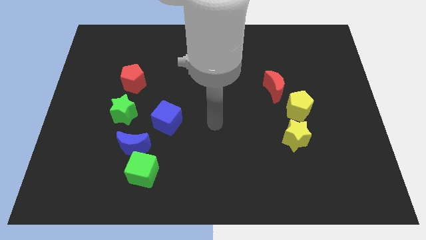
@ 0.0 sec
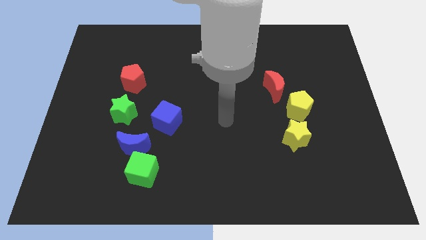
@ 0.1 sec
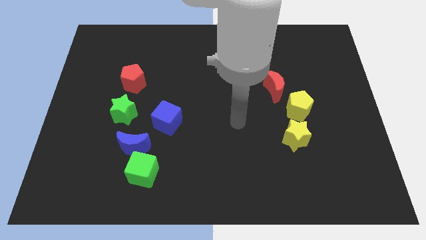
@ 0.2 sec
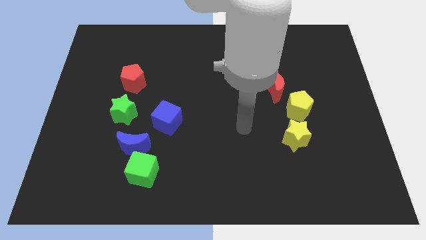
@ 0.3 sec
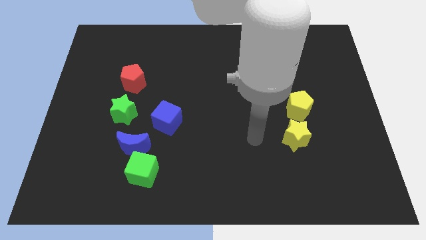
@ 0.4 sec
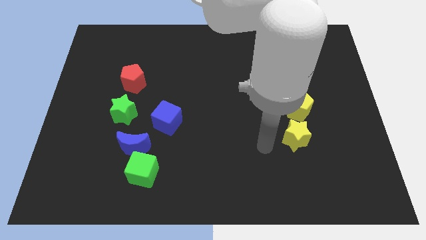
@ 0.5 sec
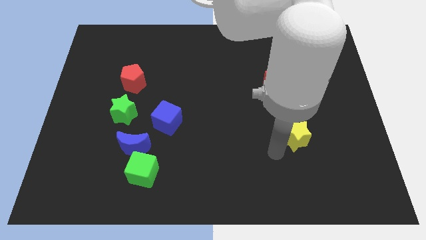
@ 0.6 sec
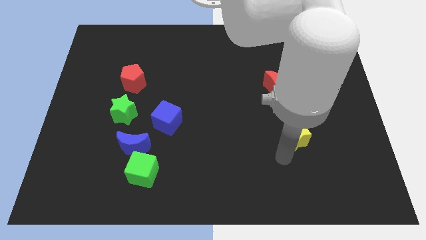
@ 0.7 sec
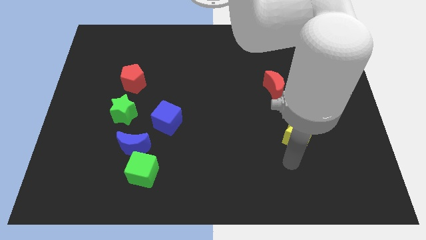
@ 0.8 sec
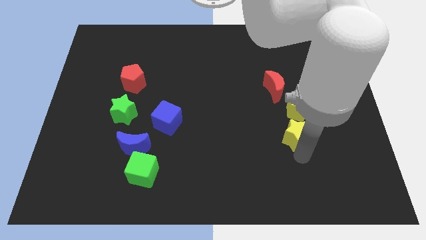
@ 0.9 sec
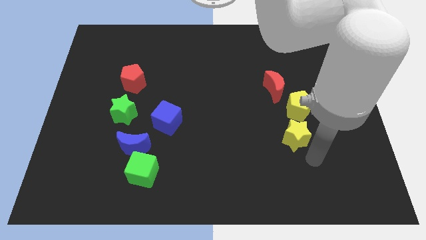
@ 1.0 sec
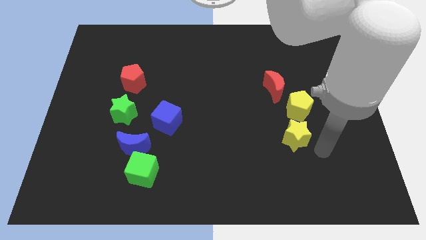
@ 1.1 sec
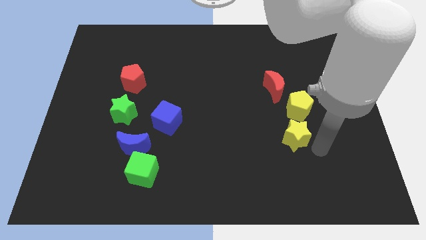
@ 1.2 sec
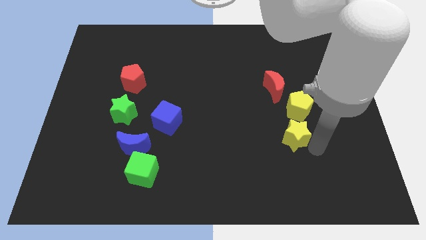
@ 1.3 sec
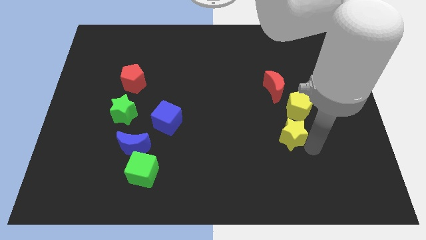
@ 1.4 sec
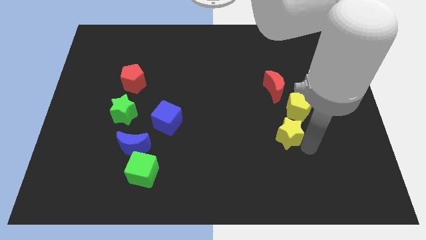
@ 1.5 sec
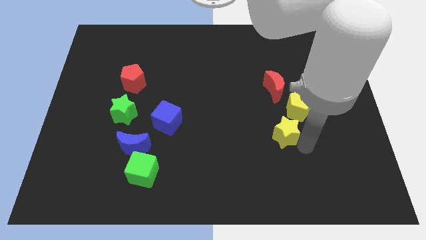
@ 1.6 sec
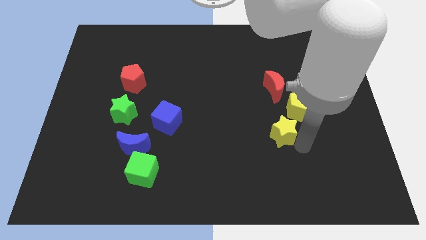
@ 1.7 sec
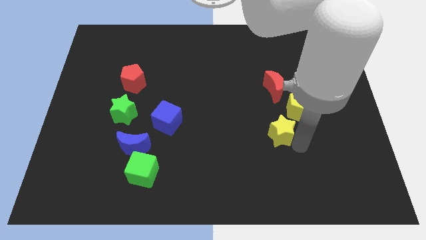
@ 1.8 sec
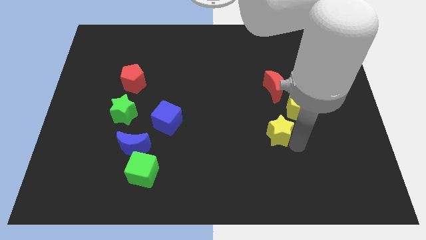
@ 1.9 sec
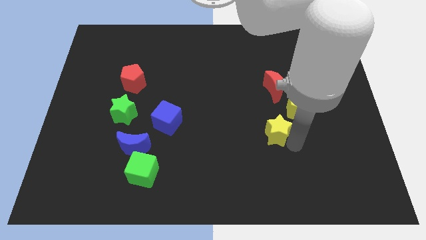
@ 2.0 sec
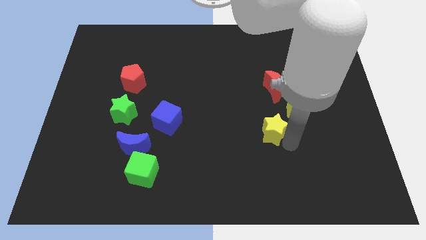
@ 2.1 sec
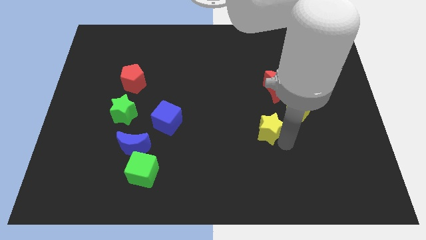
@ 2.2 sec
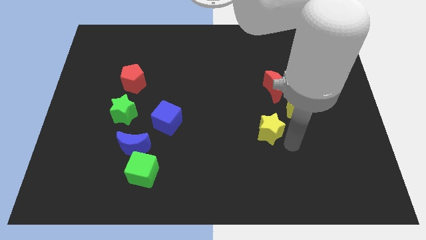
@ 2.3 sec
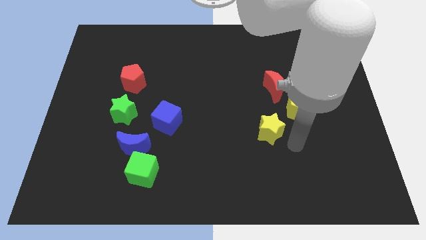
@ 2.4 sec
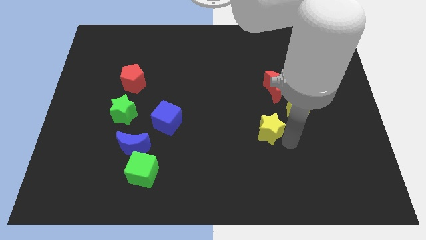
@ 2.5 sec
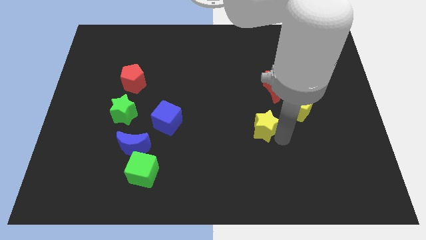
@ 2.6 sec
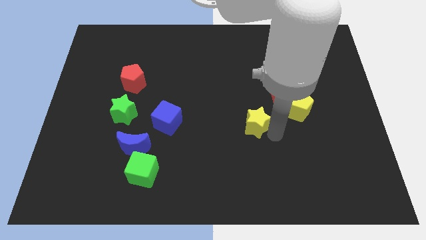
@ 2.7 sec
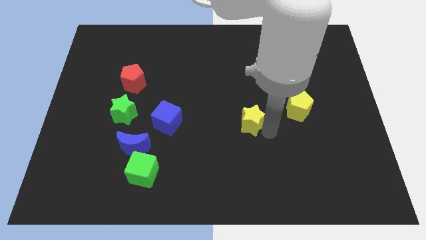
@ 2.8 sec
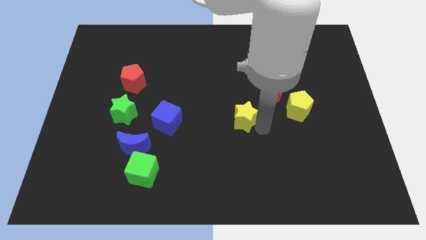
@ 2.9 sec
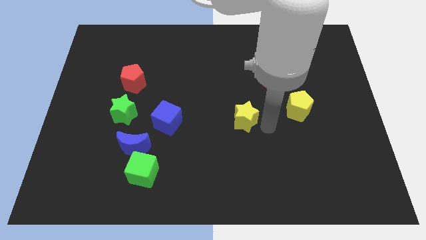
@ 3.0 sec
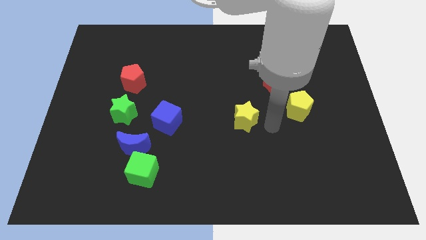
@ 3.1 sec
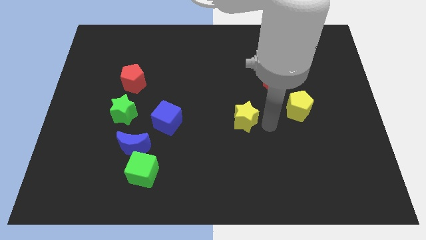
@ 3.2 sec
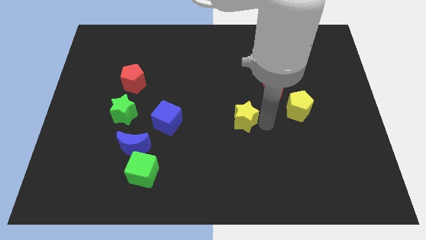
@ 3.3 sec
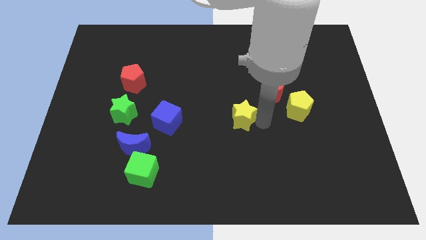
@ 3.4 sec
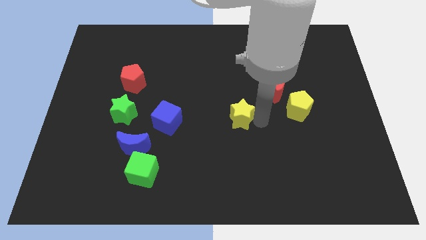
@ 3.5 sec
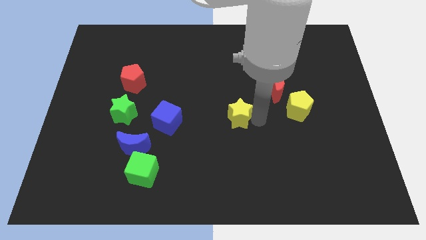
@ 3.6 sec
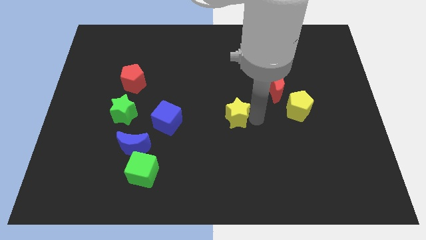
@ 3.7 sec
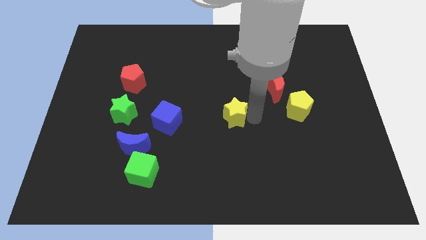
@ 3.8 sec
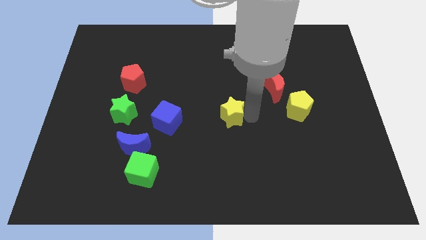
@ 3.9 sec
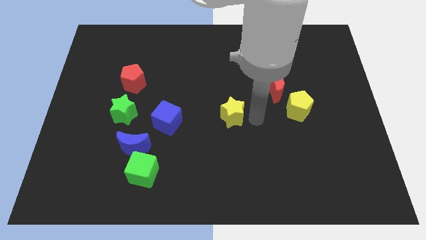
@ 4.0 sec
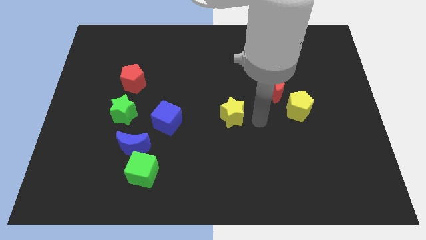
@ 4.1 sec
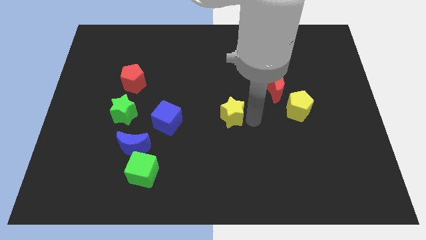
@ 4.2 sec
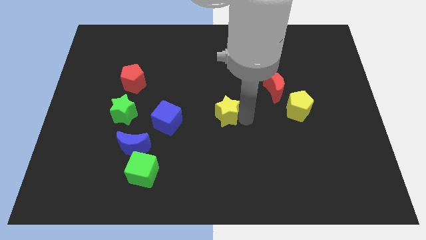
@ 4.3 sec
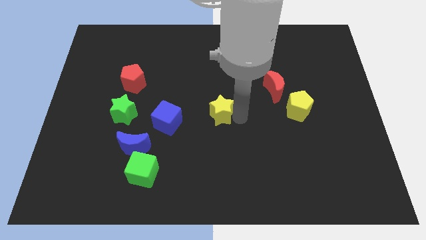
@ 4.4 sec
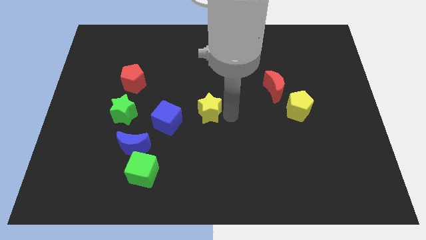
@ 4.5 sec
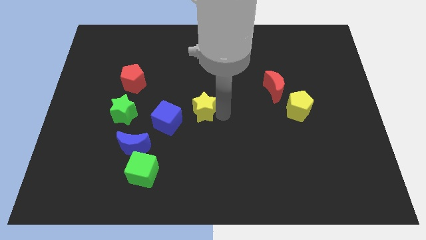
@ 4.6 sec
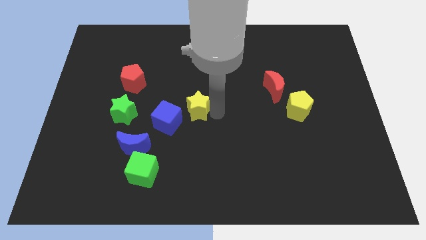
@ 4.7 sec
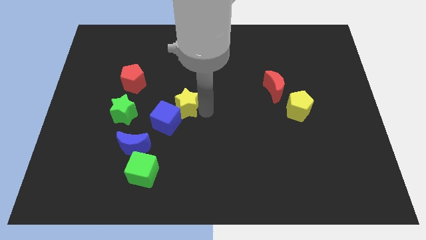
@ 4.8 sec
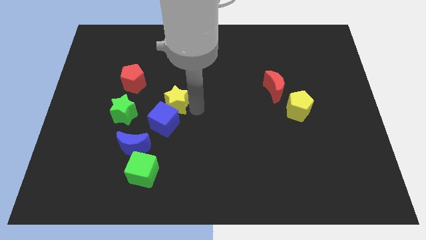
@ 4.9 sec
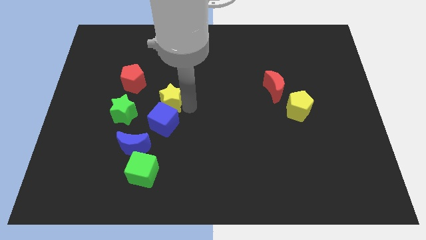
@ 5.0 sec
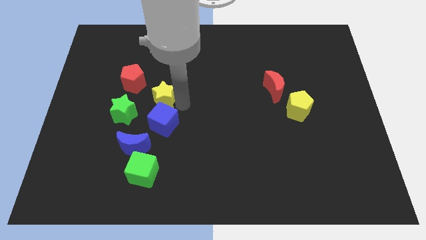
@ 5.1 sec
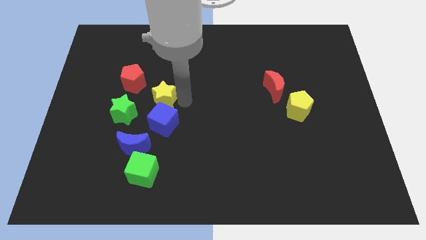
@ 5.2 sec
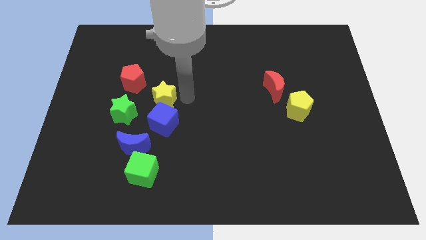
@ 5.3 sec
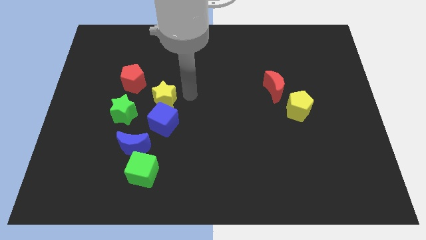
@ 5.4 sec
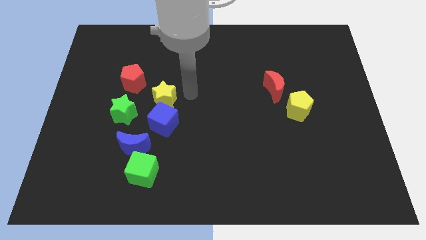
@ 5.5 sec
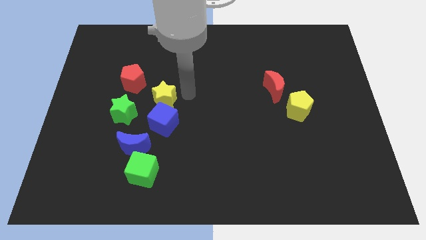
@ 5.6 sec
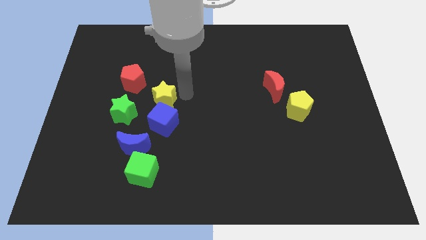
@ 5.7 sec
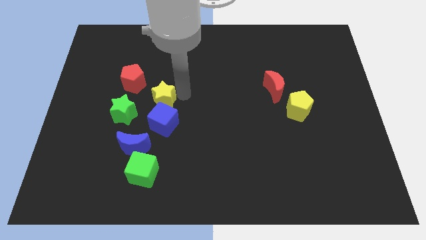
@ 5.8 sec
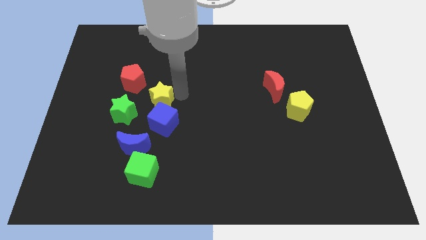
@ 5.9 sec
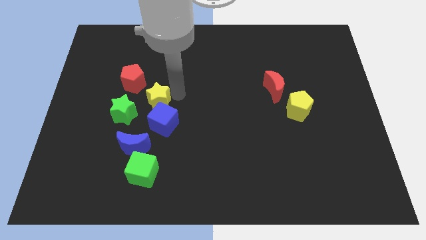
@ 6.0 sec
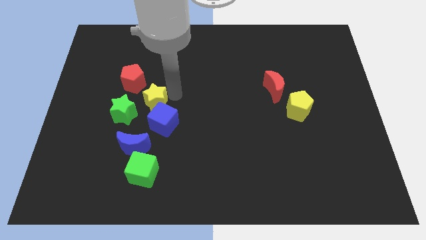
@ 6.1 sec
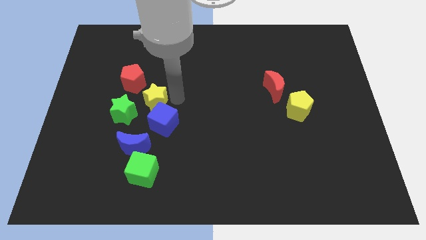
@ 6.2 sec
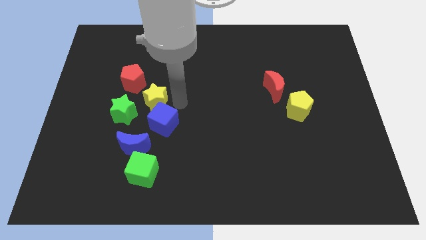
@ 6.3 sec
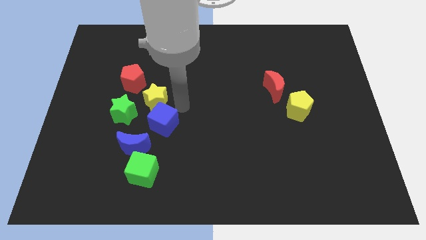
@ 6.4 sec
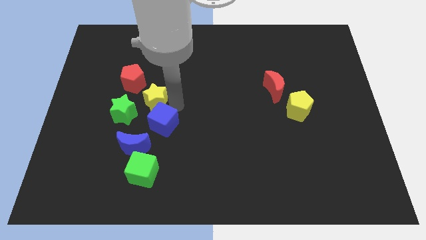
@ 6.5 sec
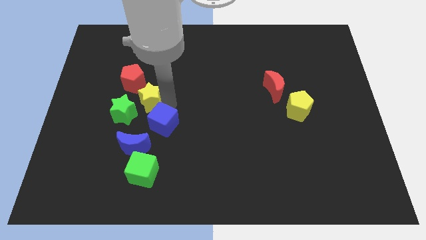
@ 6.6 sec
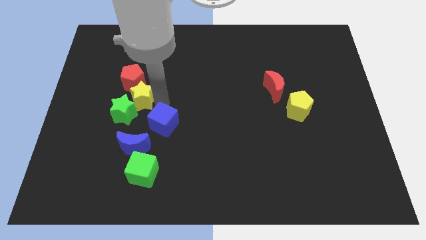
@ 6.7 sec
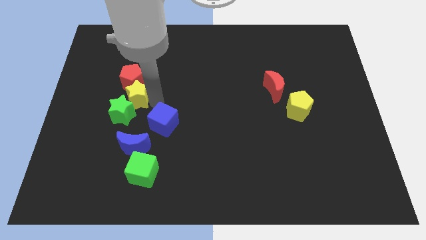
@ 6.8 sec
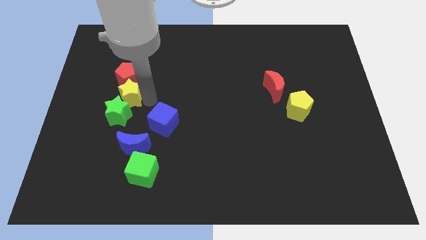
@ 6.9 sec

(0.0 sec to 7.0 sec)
move the yellow star to the bottom left side of the red pentagon
